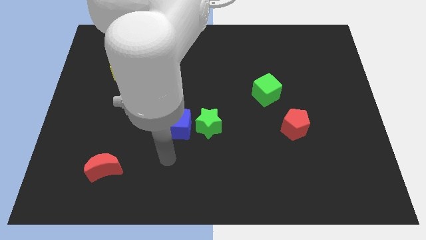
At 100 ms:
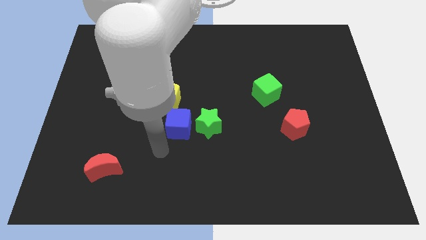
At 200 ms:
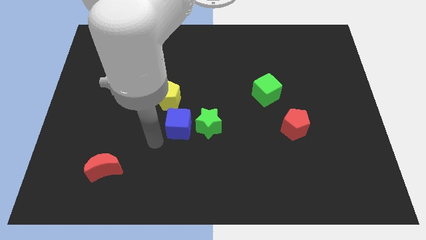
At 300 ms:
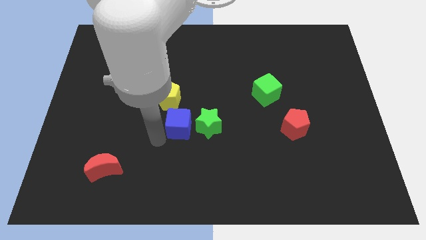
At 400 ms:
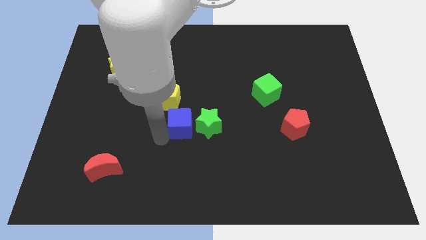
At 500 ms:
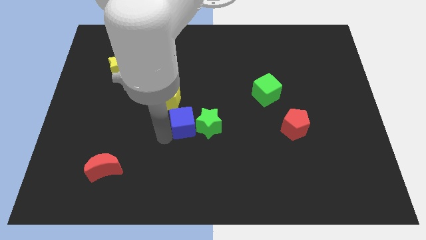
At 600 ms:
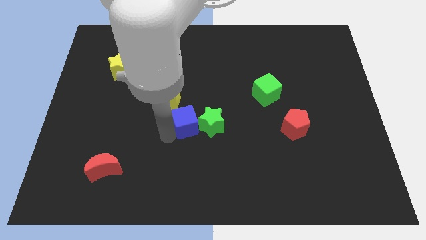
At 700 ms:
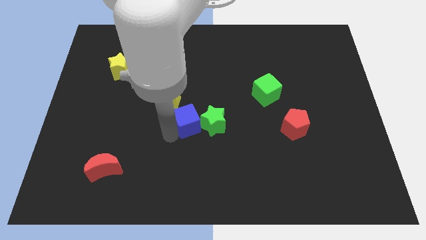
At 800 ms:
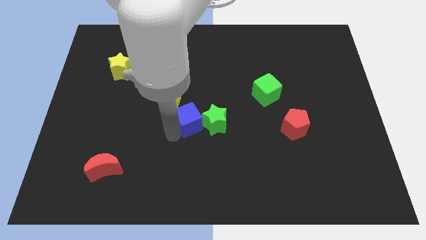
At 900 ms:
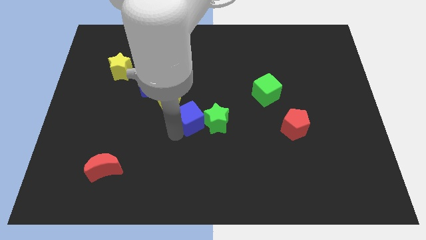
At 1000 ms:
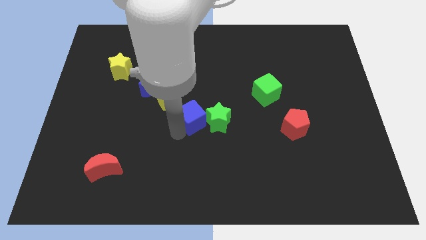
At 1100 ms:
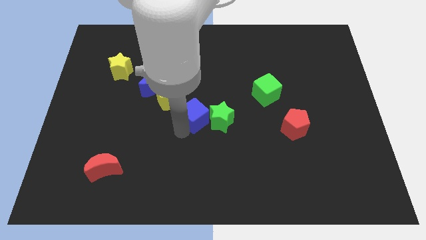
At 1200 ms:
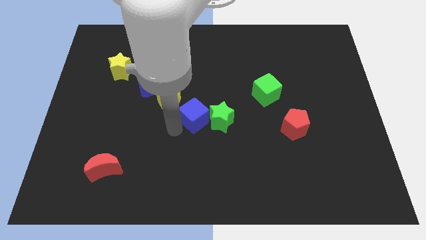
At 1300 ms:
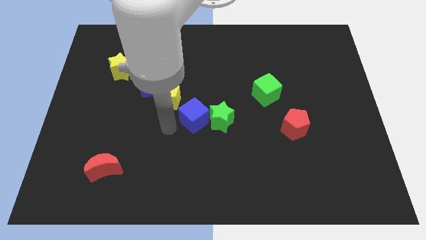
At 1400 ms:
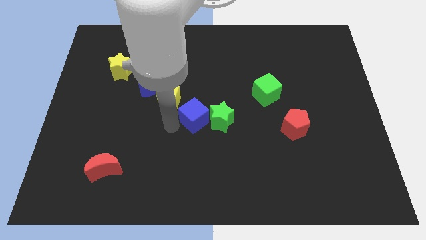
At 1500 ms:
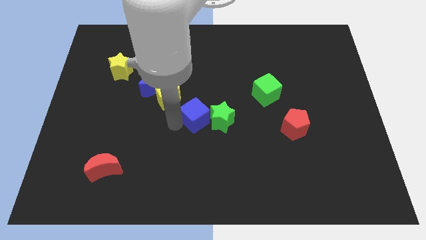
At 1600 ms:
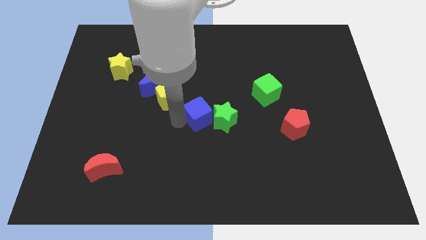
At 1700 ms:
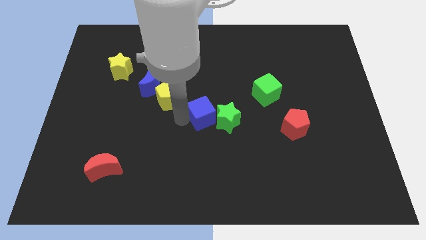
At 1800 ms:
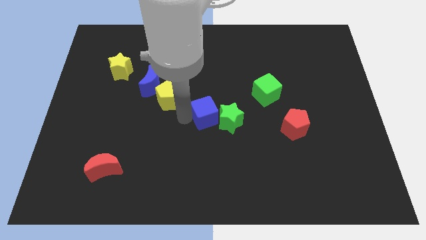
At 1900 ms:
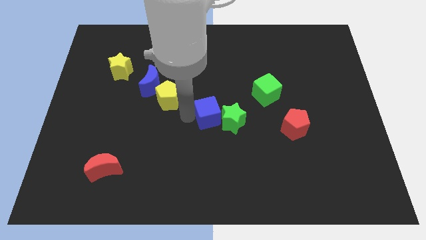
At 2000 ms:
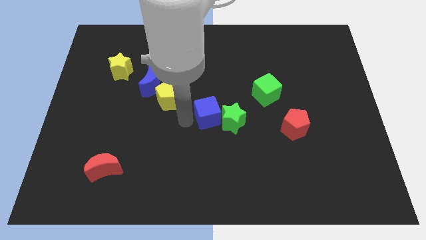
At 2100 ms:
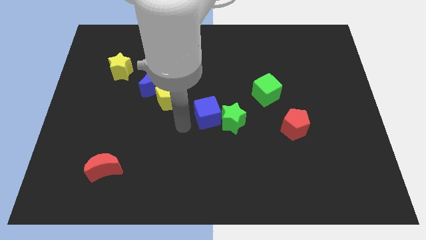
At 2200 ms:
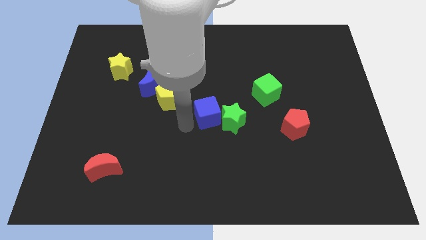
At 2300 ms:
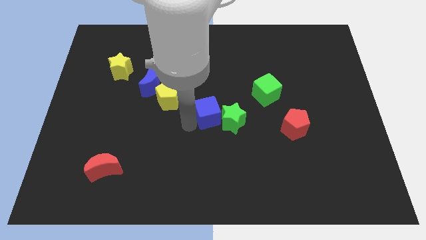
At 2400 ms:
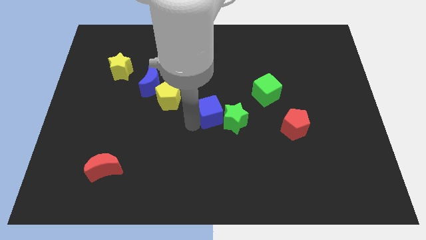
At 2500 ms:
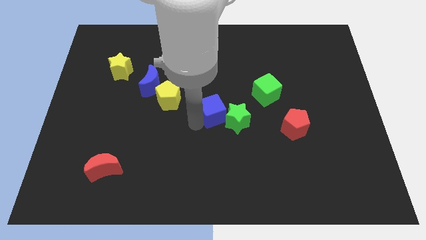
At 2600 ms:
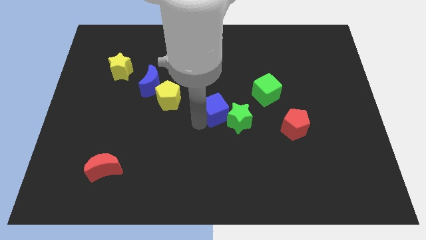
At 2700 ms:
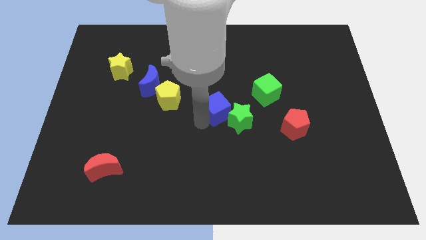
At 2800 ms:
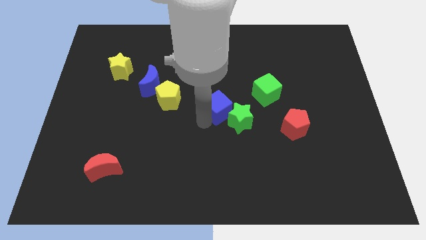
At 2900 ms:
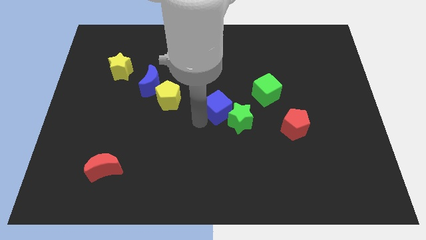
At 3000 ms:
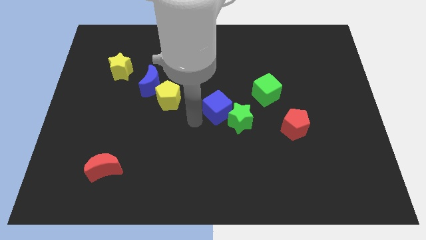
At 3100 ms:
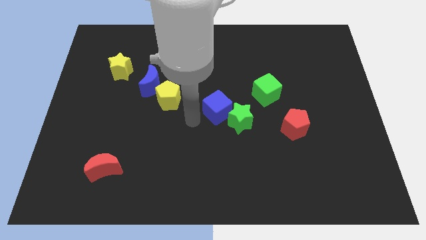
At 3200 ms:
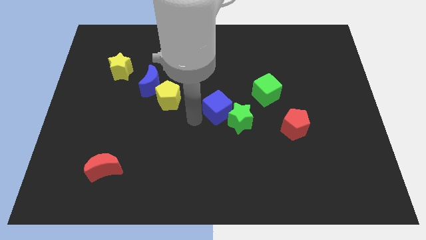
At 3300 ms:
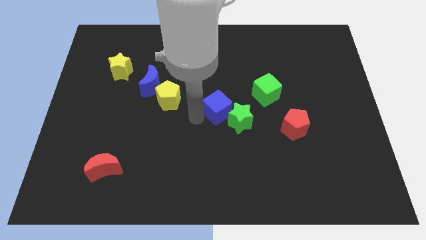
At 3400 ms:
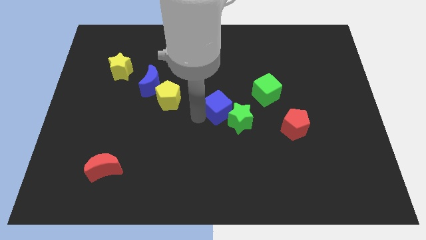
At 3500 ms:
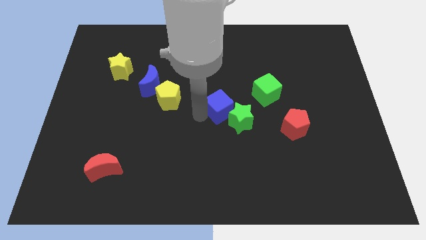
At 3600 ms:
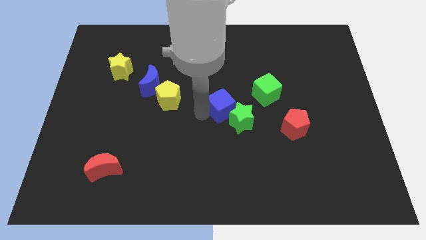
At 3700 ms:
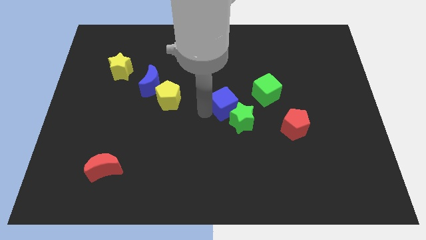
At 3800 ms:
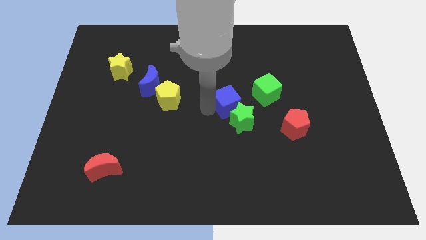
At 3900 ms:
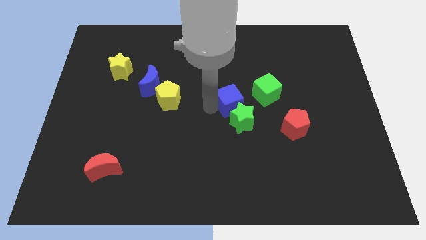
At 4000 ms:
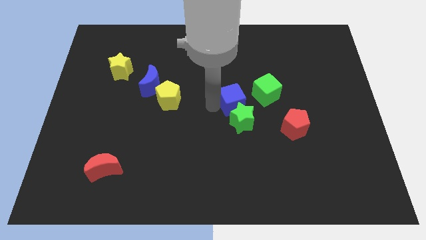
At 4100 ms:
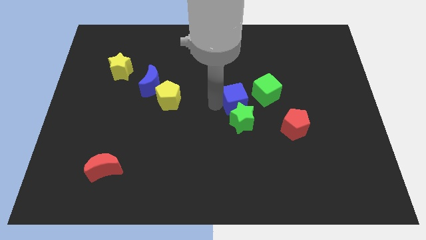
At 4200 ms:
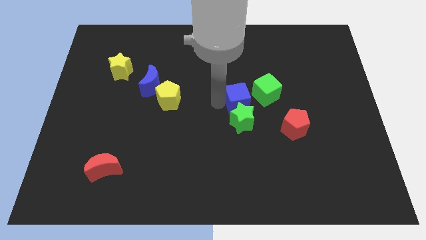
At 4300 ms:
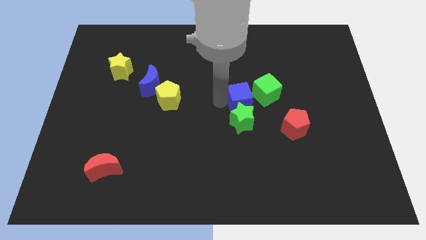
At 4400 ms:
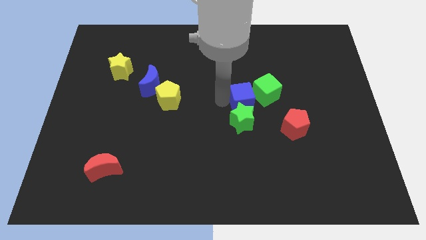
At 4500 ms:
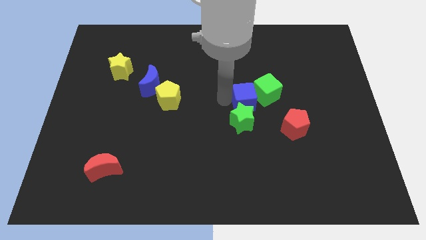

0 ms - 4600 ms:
put the blue cube to the green cube

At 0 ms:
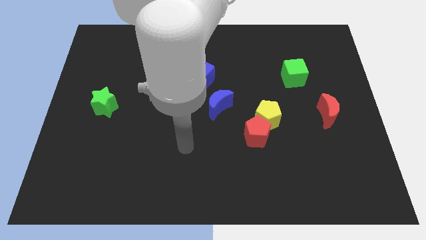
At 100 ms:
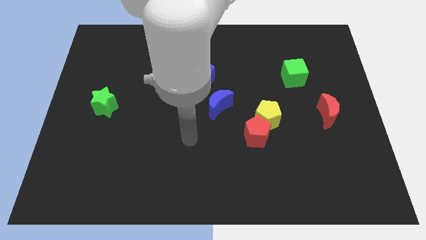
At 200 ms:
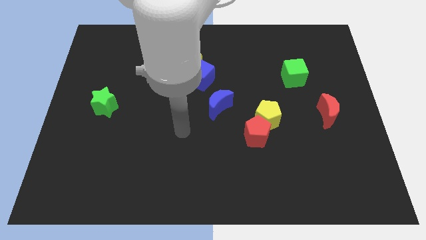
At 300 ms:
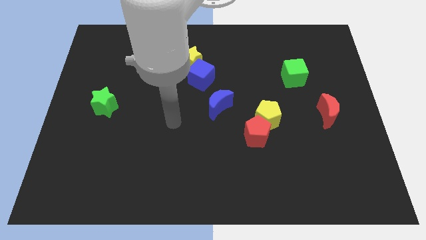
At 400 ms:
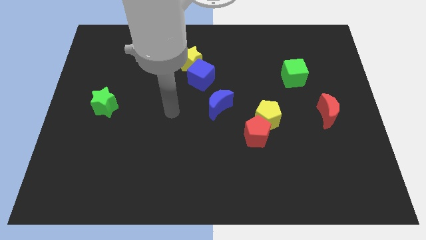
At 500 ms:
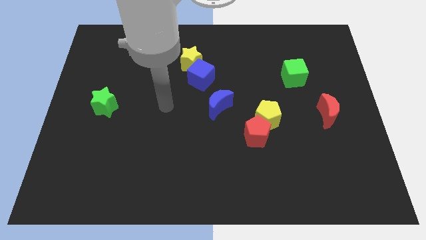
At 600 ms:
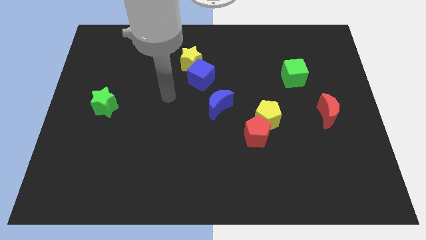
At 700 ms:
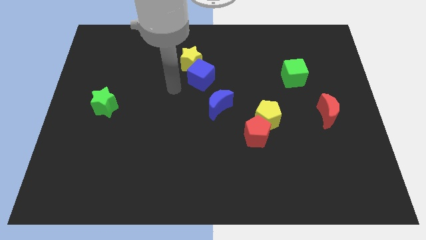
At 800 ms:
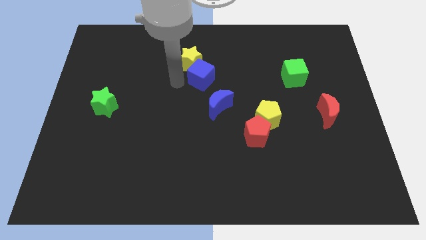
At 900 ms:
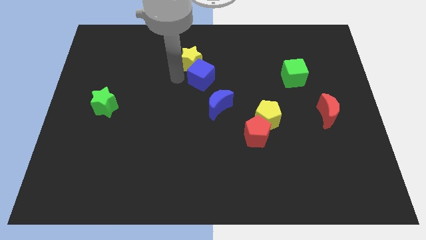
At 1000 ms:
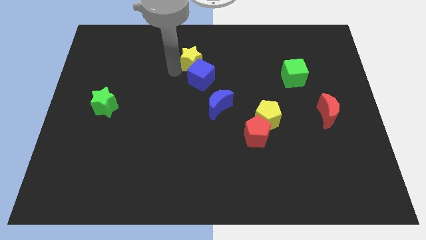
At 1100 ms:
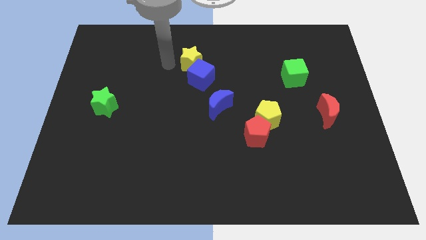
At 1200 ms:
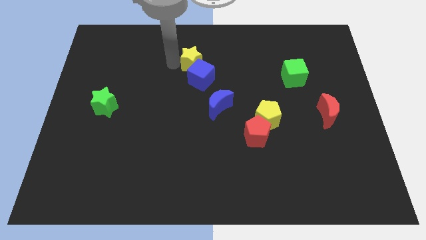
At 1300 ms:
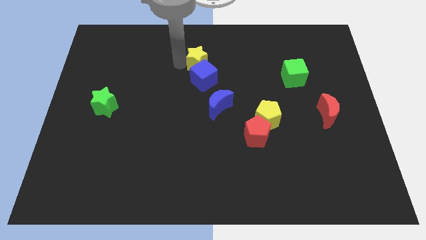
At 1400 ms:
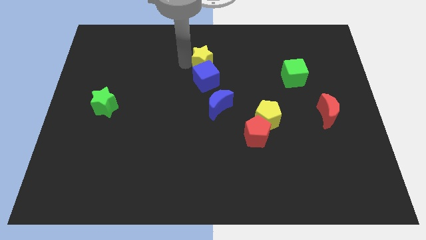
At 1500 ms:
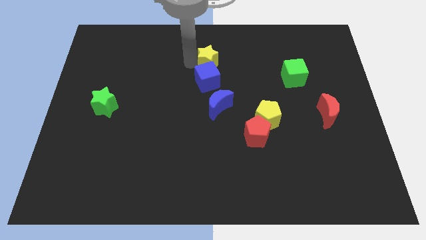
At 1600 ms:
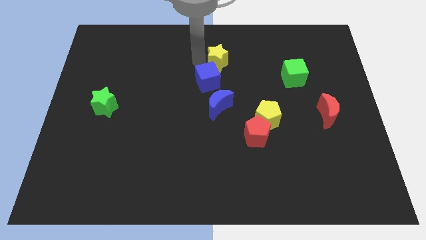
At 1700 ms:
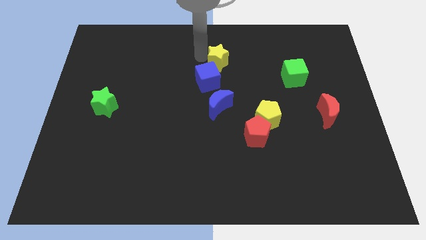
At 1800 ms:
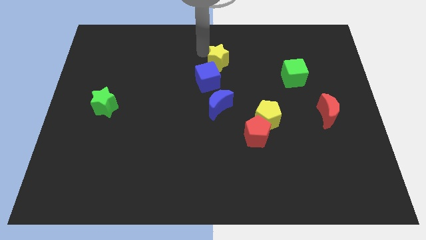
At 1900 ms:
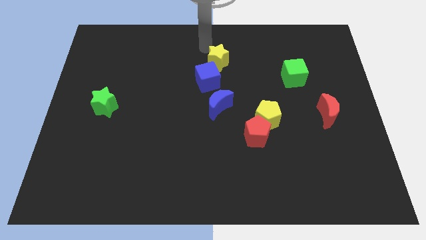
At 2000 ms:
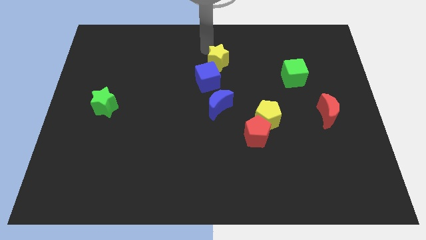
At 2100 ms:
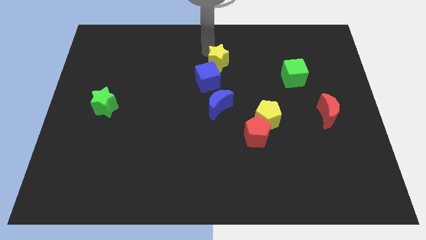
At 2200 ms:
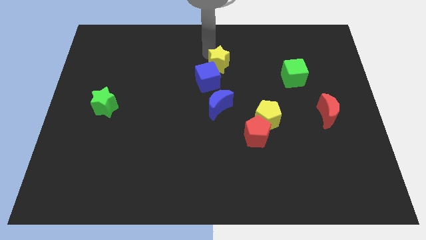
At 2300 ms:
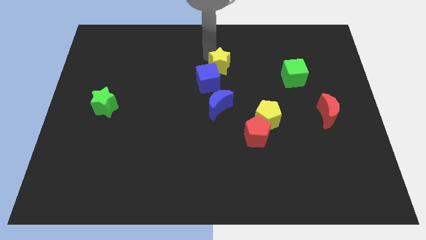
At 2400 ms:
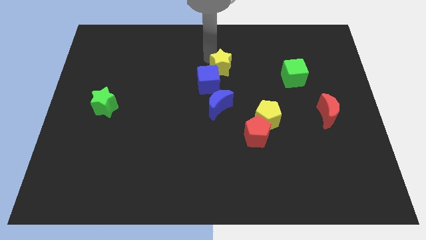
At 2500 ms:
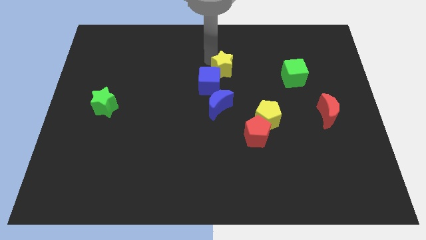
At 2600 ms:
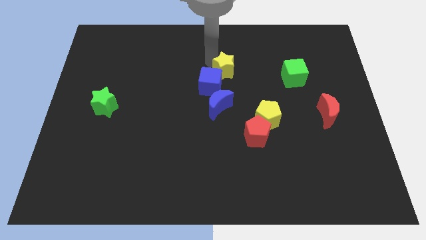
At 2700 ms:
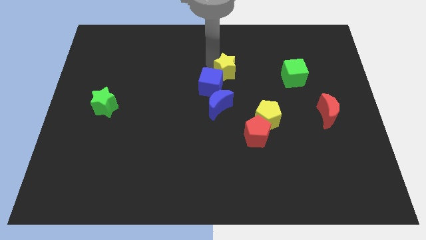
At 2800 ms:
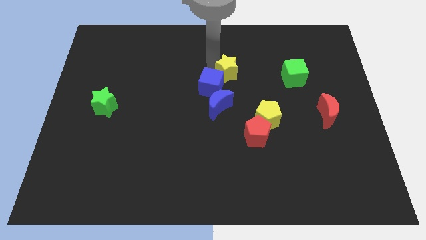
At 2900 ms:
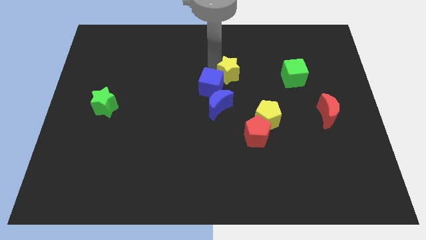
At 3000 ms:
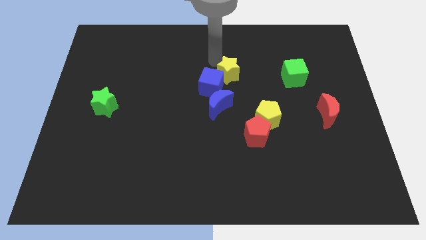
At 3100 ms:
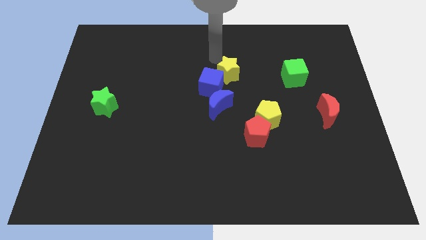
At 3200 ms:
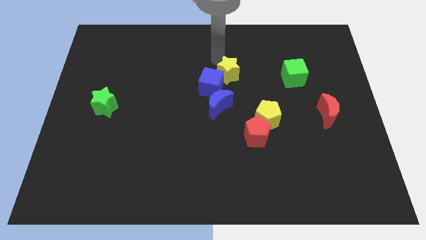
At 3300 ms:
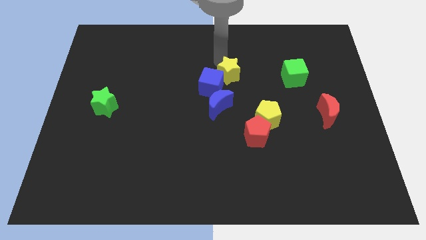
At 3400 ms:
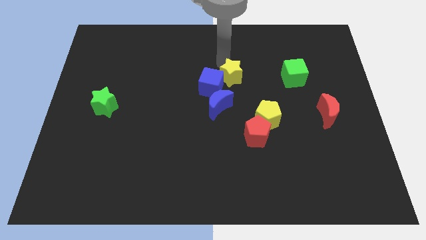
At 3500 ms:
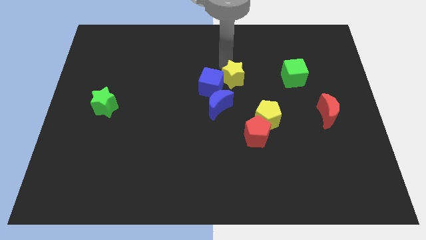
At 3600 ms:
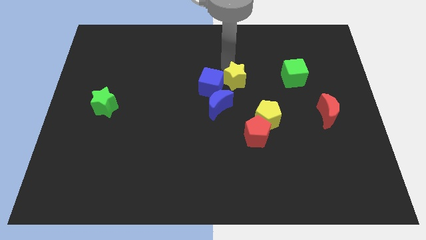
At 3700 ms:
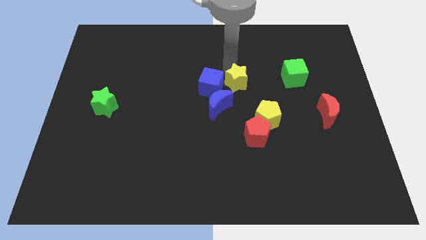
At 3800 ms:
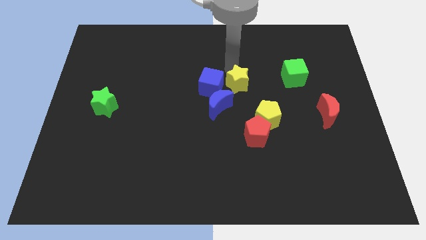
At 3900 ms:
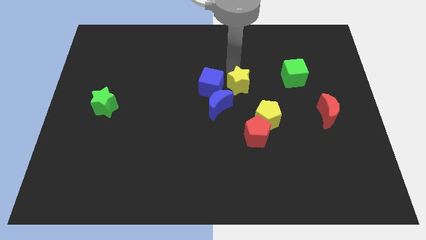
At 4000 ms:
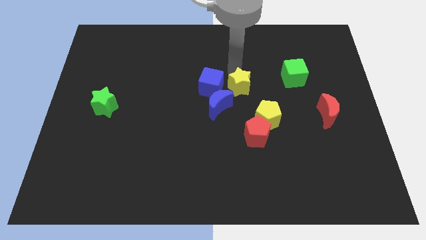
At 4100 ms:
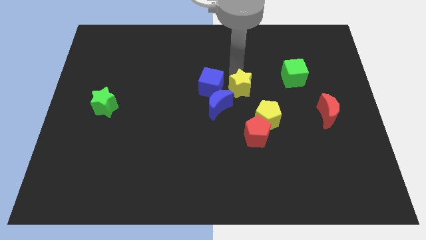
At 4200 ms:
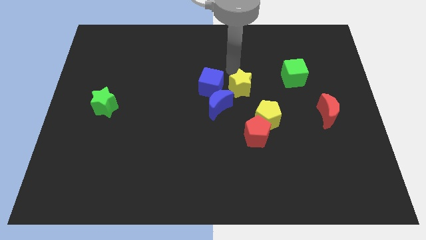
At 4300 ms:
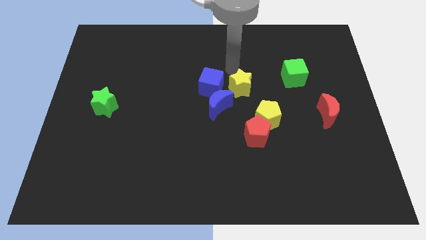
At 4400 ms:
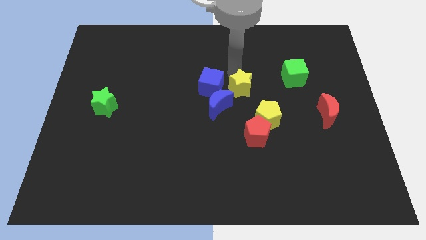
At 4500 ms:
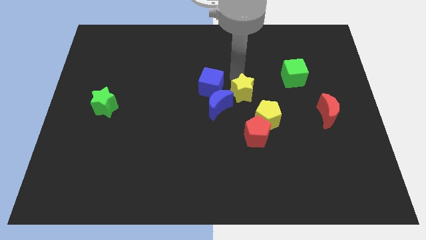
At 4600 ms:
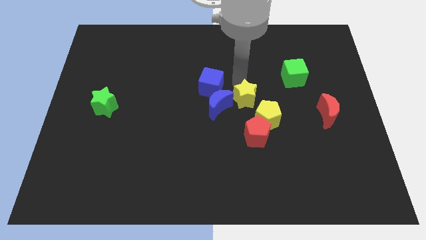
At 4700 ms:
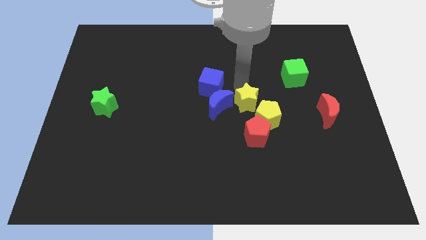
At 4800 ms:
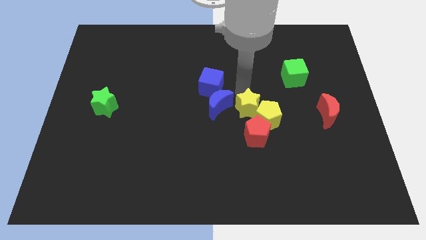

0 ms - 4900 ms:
put the yellow star next to the yellow pentagon
